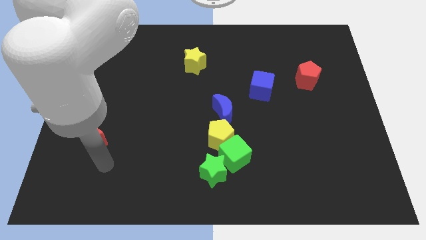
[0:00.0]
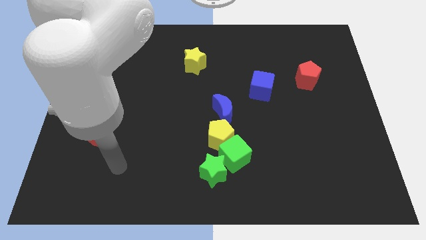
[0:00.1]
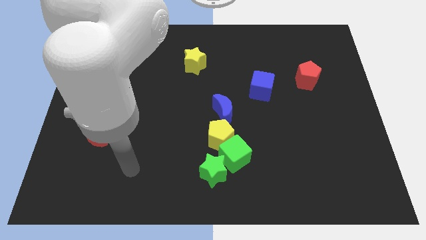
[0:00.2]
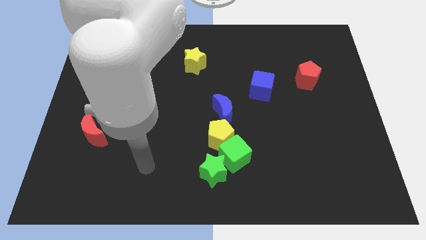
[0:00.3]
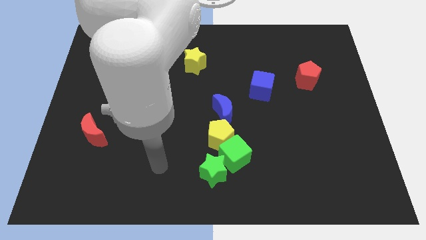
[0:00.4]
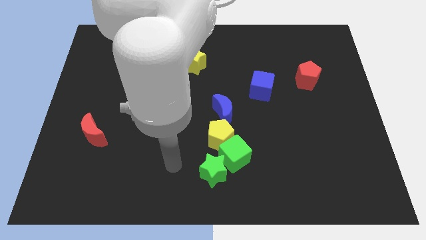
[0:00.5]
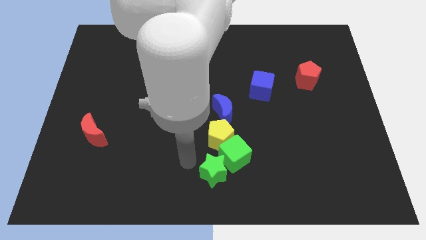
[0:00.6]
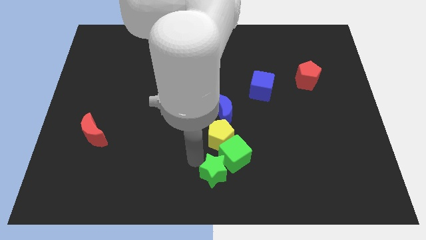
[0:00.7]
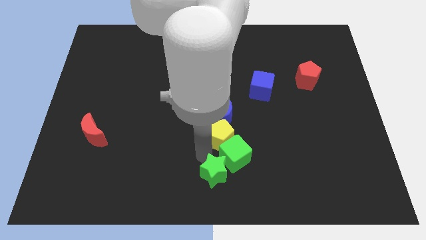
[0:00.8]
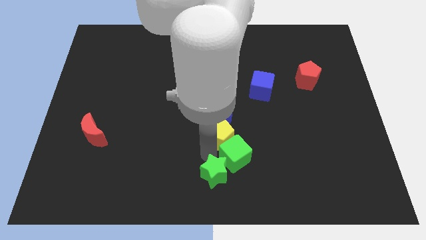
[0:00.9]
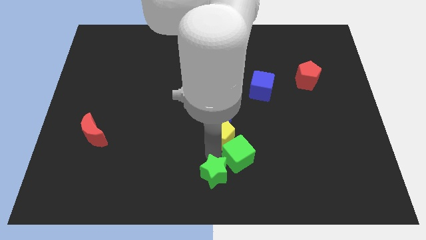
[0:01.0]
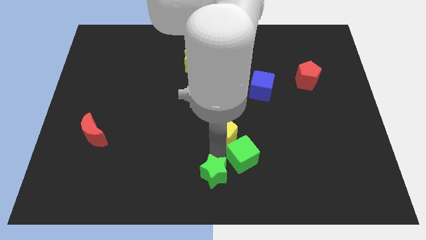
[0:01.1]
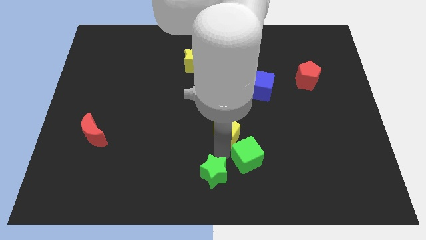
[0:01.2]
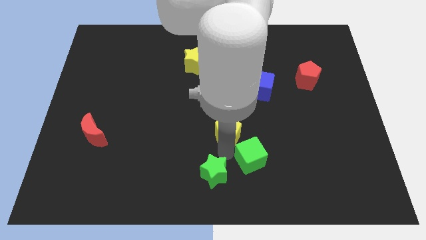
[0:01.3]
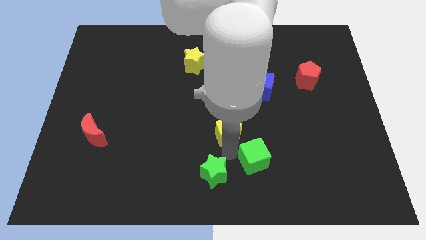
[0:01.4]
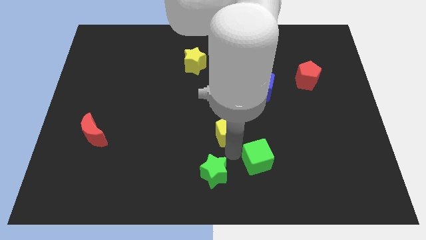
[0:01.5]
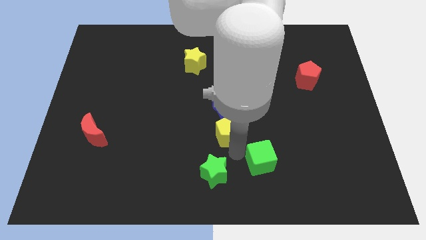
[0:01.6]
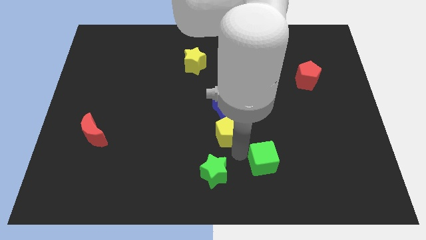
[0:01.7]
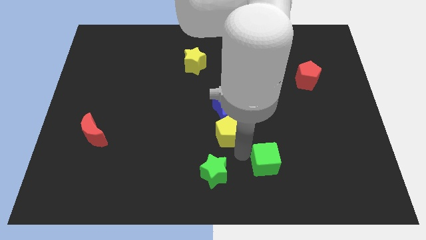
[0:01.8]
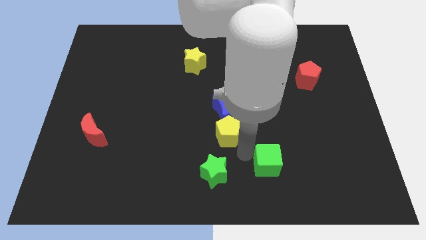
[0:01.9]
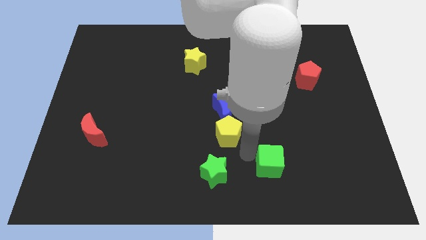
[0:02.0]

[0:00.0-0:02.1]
separate the green cube from the yellow pentagon and green star

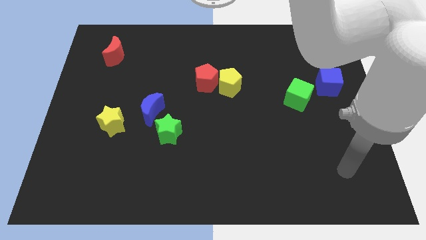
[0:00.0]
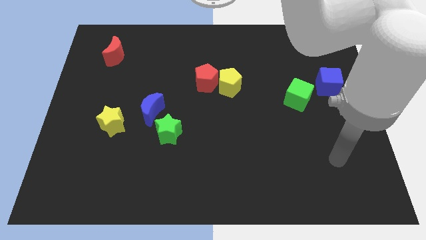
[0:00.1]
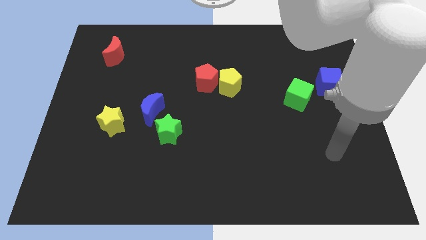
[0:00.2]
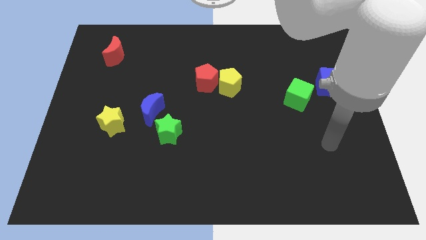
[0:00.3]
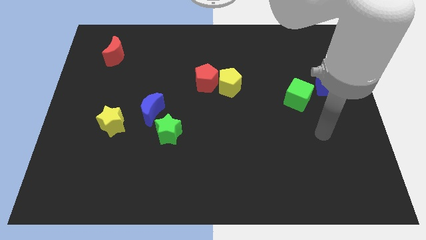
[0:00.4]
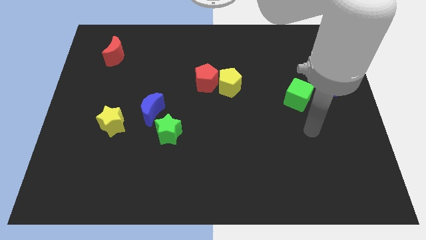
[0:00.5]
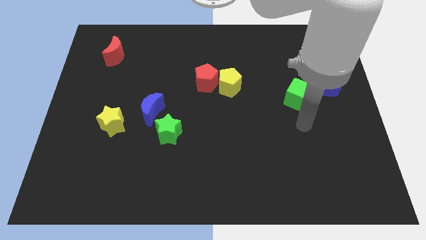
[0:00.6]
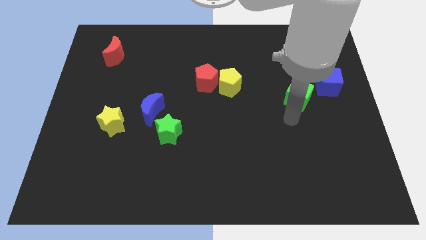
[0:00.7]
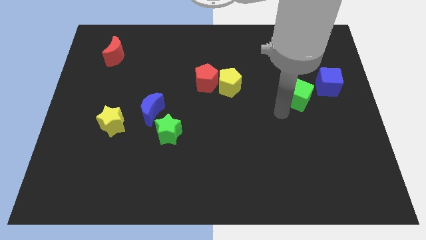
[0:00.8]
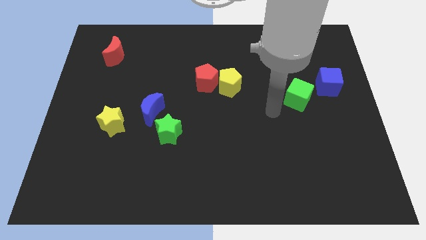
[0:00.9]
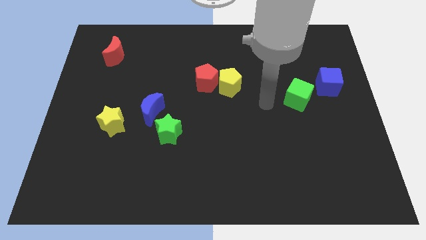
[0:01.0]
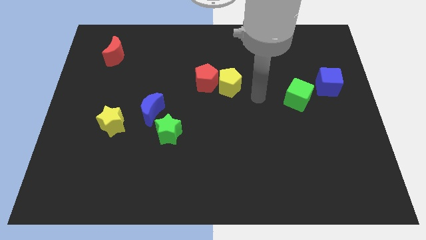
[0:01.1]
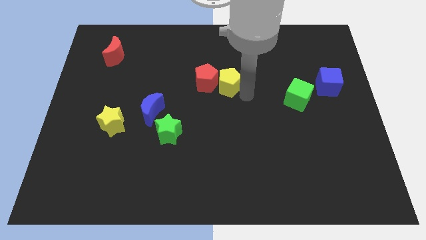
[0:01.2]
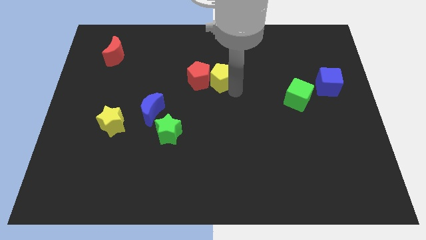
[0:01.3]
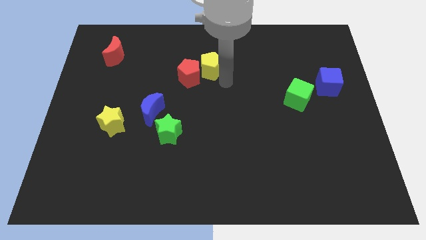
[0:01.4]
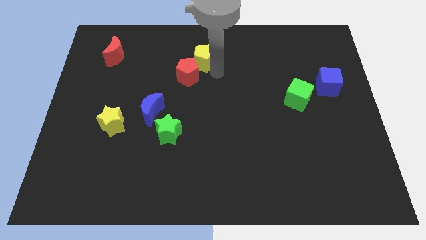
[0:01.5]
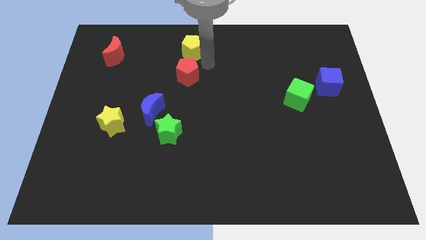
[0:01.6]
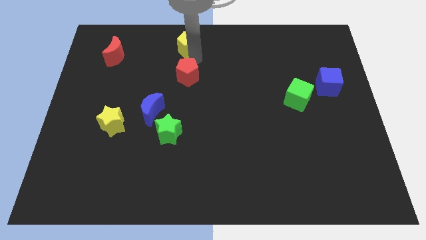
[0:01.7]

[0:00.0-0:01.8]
pull the red pentagon apart from the yellow pentagon

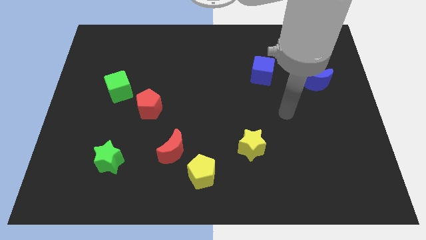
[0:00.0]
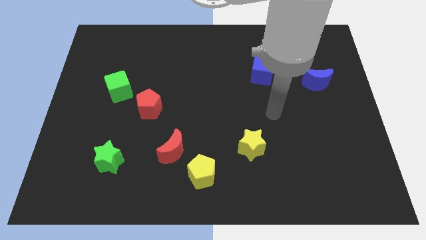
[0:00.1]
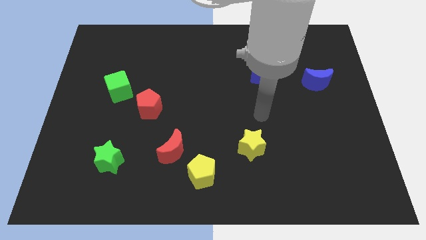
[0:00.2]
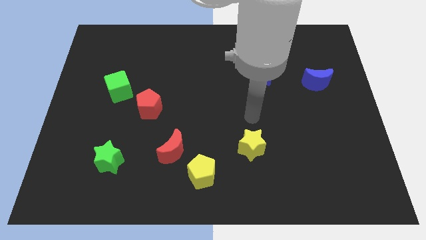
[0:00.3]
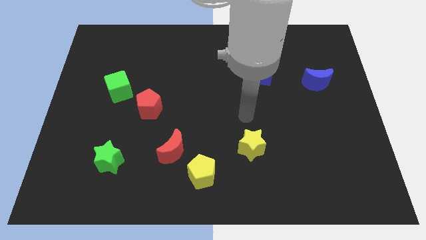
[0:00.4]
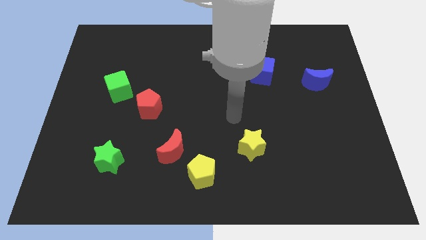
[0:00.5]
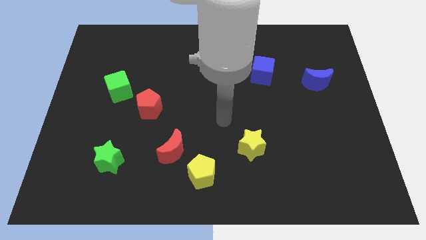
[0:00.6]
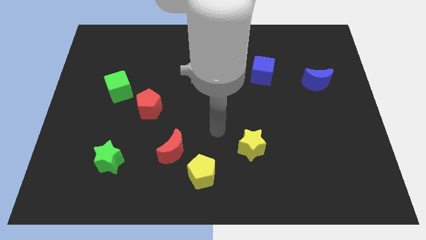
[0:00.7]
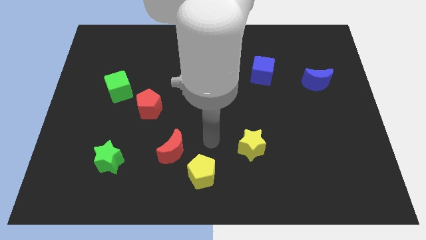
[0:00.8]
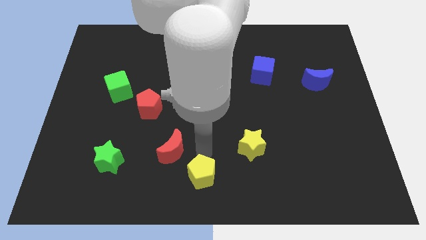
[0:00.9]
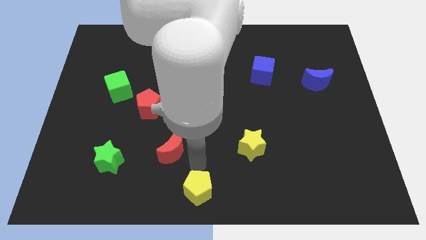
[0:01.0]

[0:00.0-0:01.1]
move the red moon away from the yellow pentagon

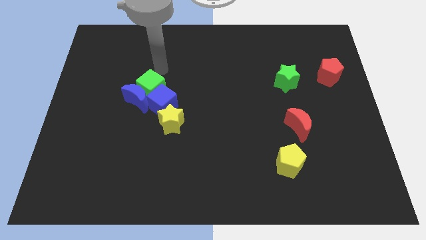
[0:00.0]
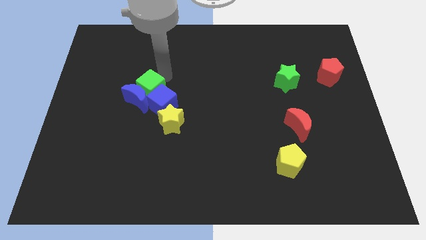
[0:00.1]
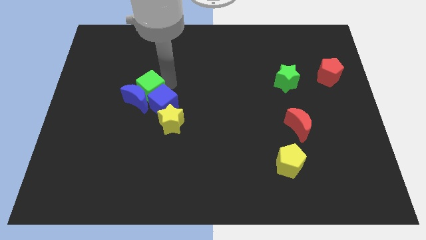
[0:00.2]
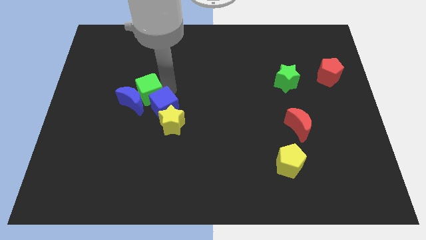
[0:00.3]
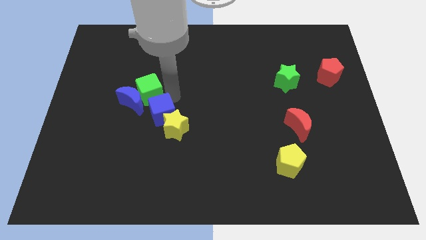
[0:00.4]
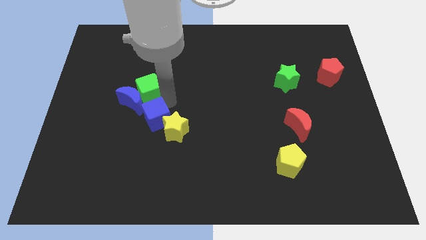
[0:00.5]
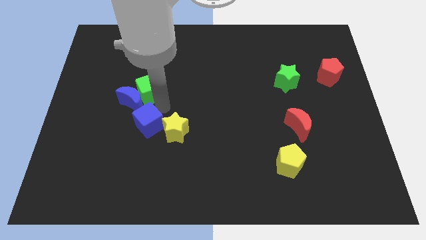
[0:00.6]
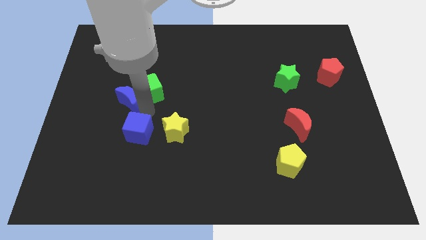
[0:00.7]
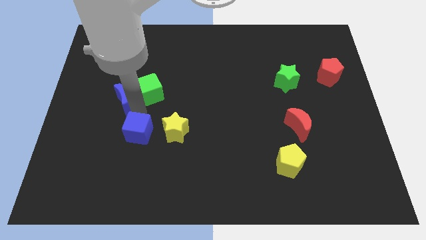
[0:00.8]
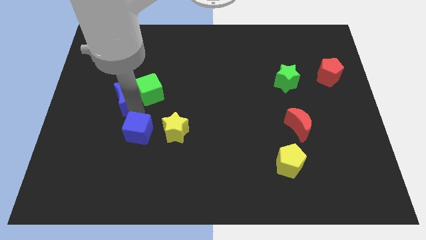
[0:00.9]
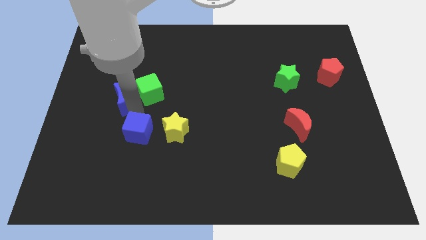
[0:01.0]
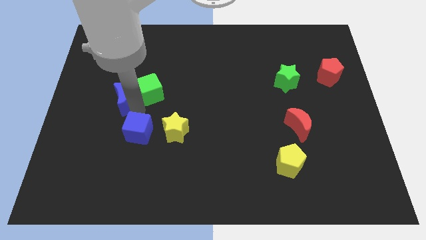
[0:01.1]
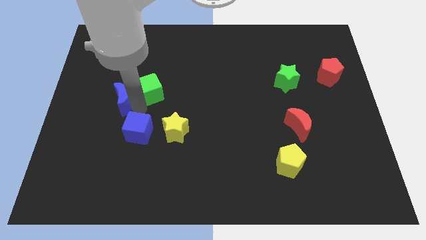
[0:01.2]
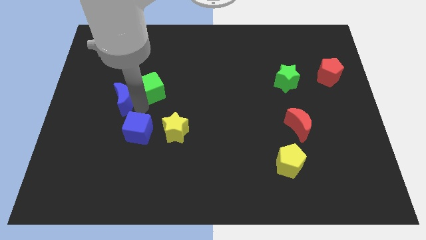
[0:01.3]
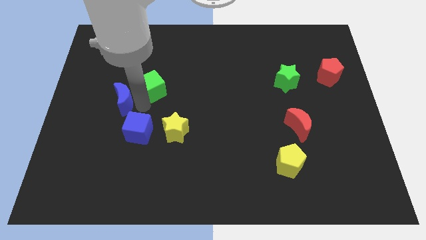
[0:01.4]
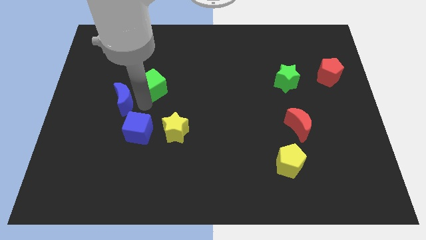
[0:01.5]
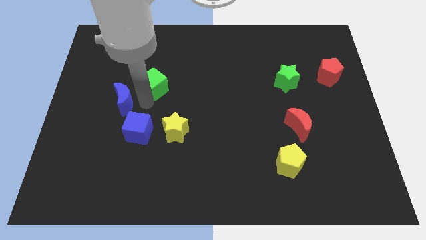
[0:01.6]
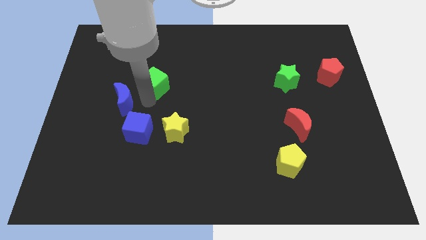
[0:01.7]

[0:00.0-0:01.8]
pull the green cube apart from the blue moon and blue cube

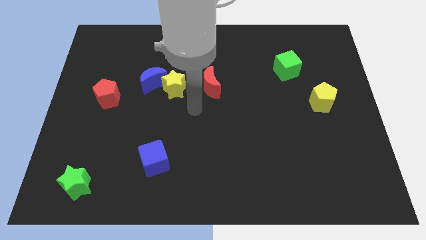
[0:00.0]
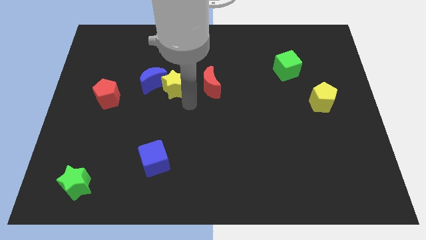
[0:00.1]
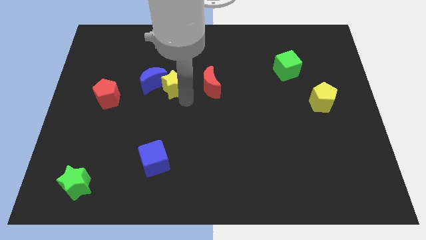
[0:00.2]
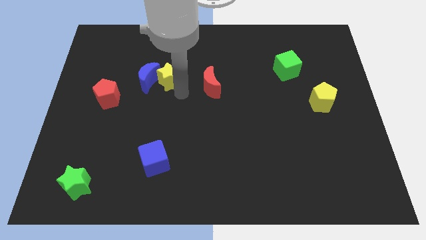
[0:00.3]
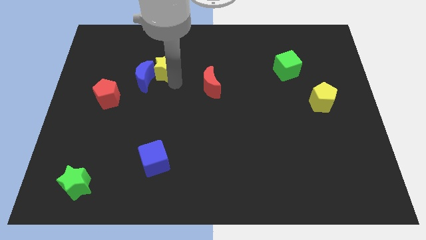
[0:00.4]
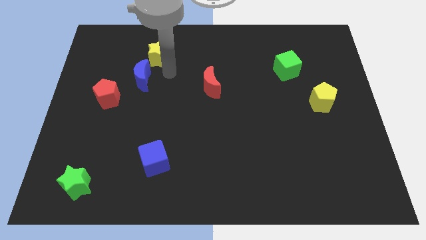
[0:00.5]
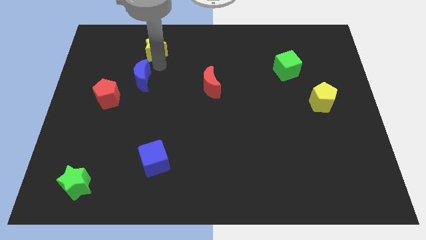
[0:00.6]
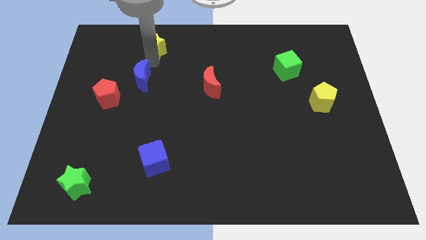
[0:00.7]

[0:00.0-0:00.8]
pull the blue moon apart from the yellow star

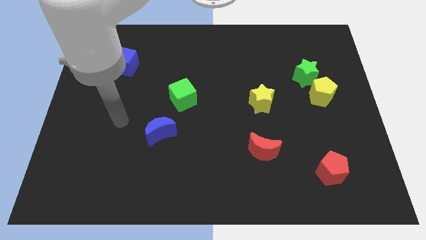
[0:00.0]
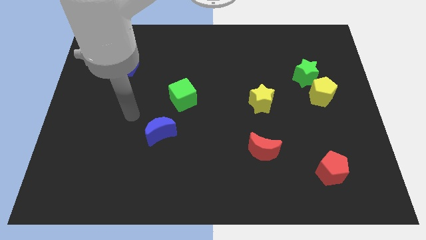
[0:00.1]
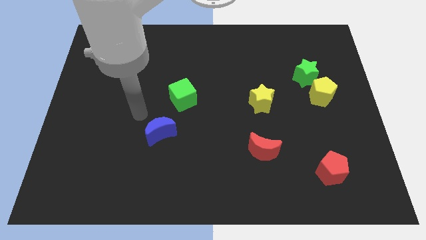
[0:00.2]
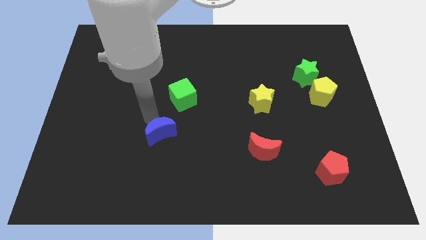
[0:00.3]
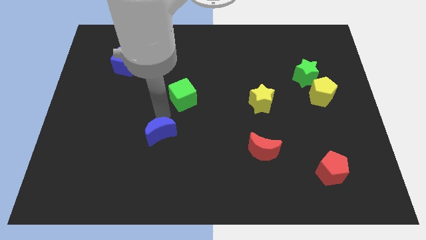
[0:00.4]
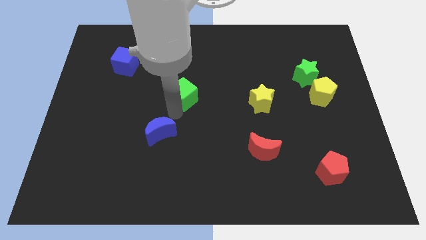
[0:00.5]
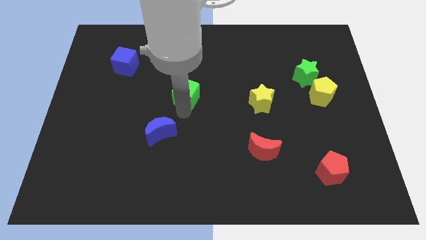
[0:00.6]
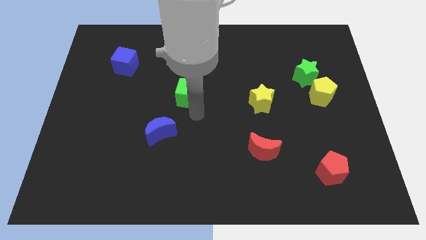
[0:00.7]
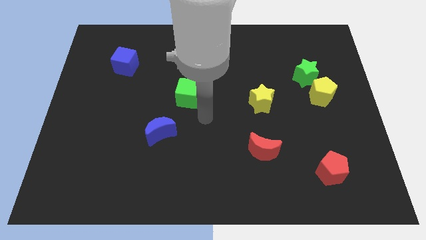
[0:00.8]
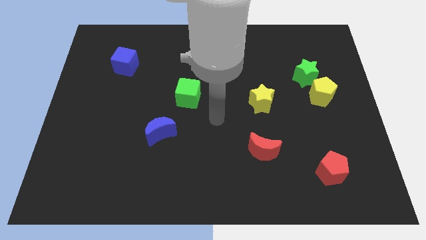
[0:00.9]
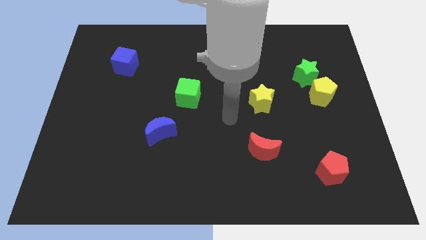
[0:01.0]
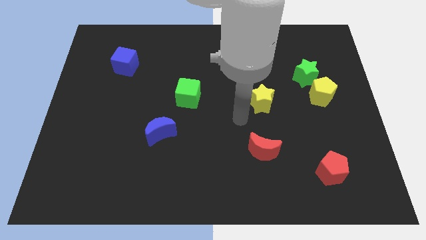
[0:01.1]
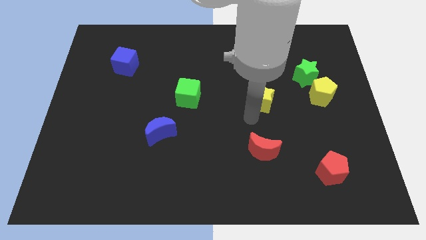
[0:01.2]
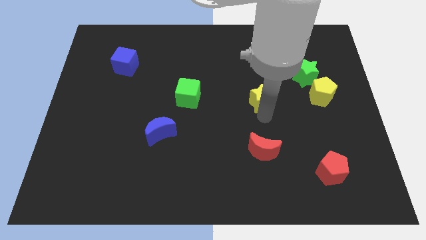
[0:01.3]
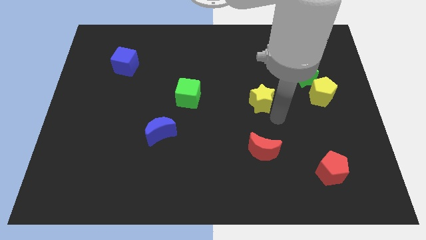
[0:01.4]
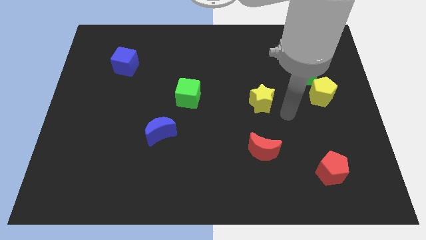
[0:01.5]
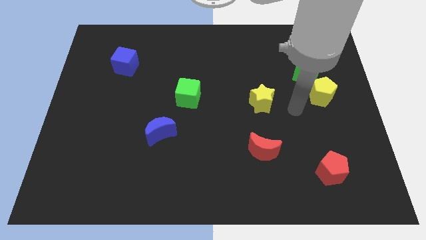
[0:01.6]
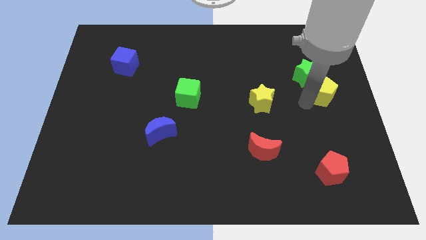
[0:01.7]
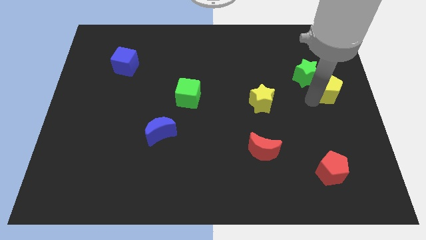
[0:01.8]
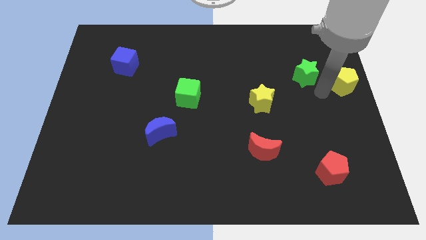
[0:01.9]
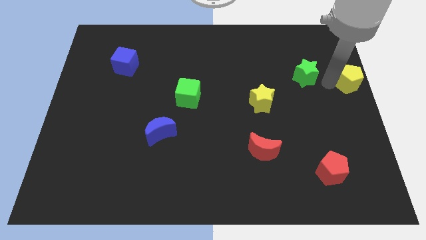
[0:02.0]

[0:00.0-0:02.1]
move the green star away from the yellow pentagon
